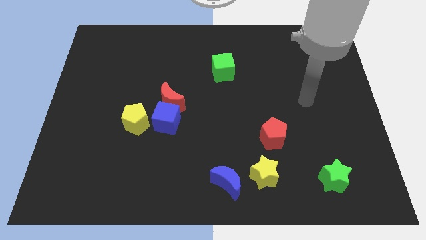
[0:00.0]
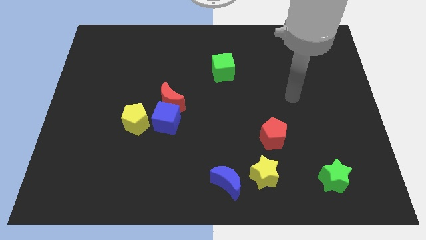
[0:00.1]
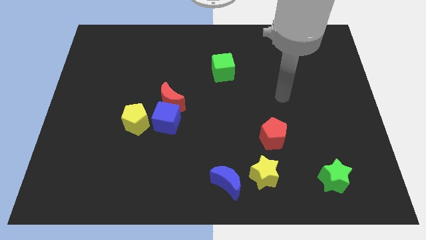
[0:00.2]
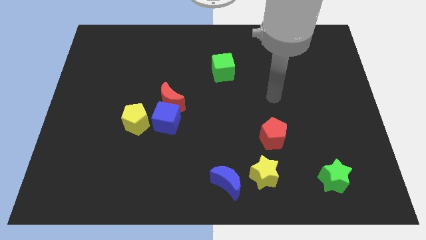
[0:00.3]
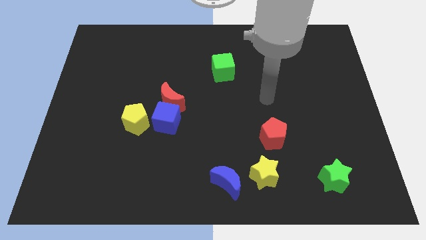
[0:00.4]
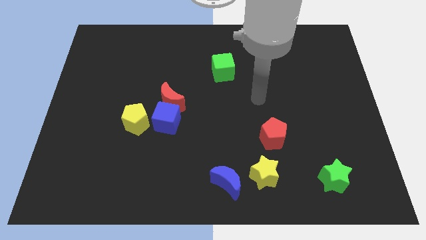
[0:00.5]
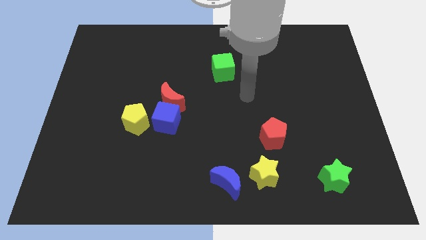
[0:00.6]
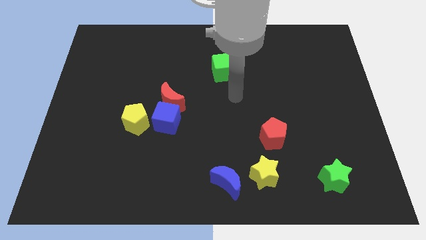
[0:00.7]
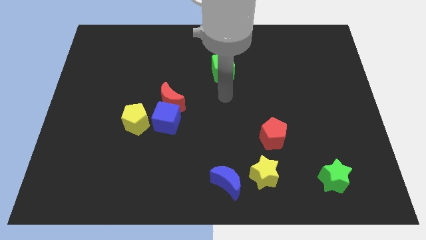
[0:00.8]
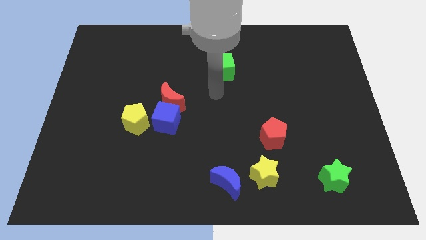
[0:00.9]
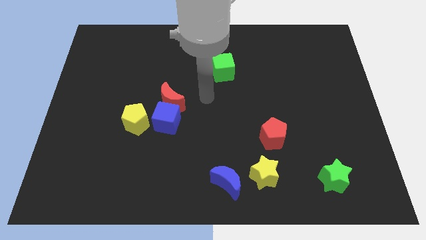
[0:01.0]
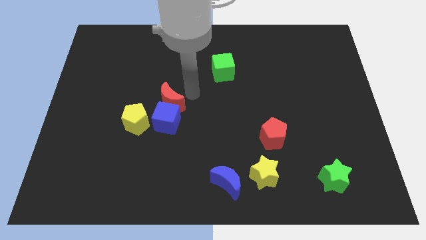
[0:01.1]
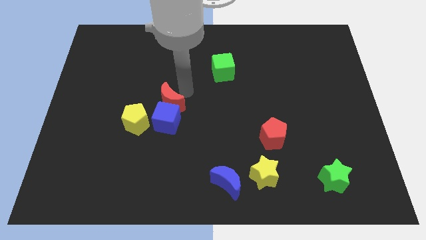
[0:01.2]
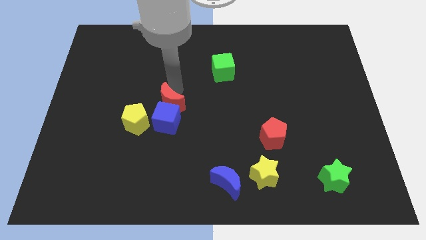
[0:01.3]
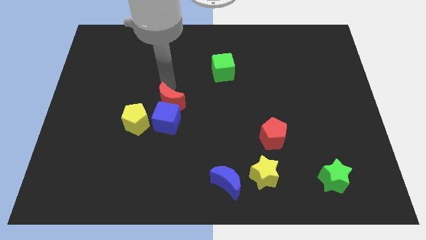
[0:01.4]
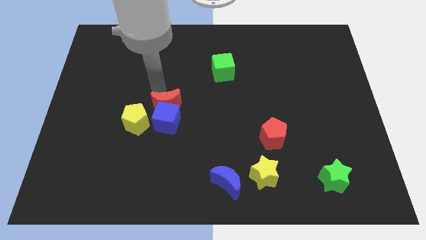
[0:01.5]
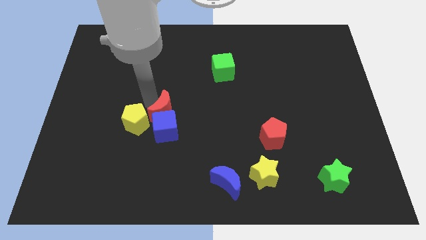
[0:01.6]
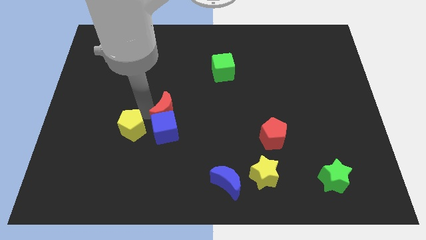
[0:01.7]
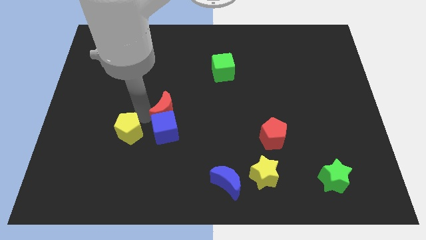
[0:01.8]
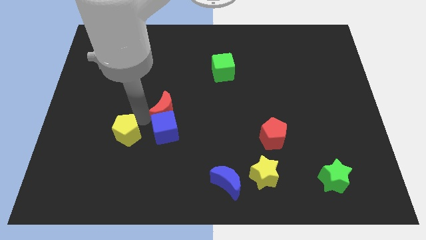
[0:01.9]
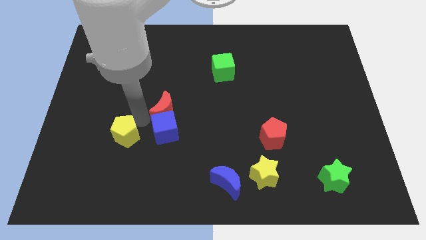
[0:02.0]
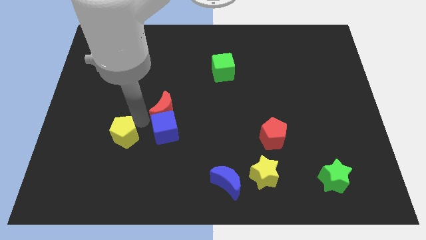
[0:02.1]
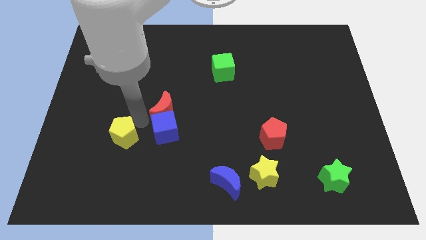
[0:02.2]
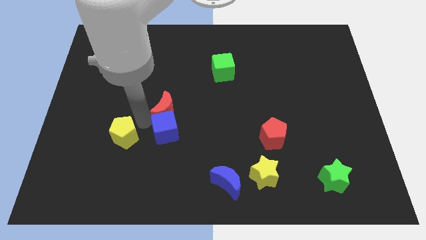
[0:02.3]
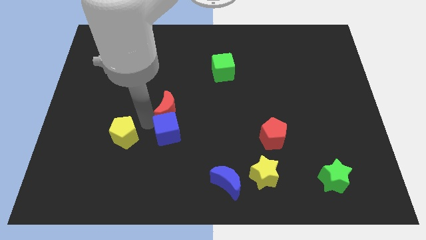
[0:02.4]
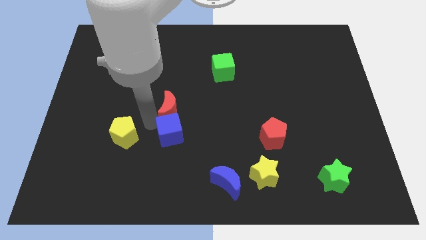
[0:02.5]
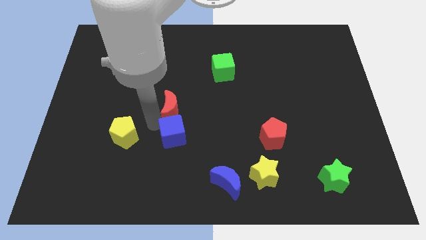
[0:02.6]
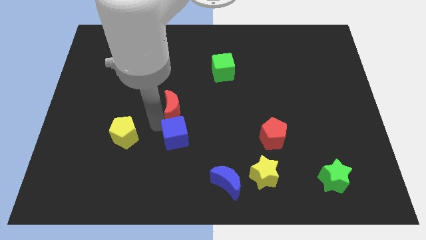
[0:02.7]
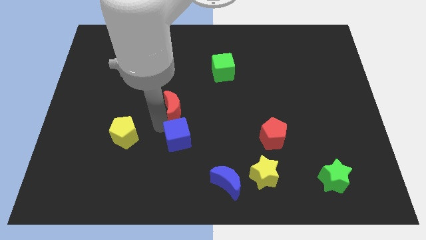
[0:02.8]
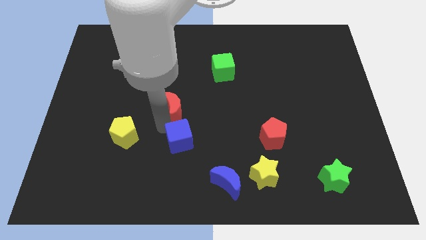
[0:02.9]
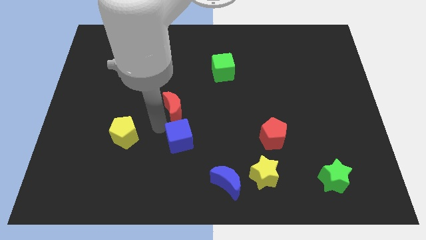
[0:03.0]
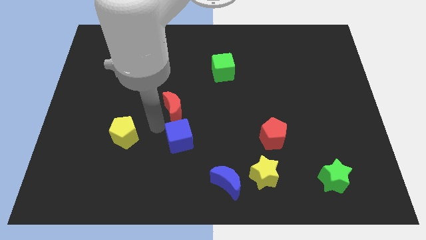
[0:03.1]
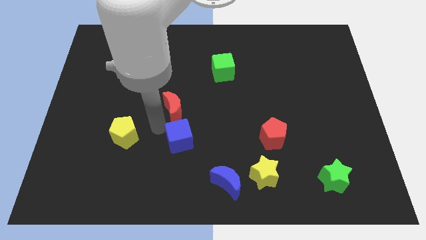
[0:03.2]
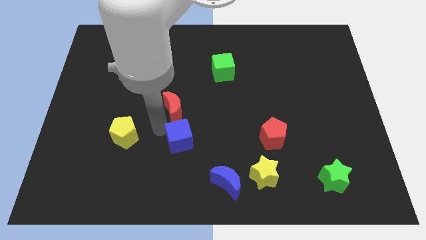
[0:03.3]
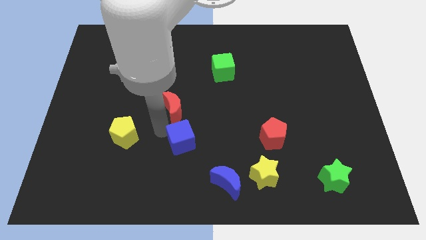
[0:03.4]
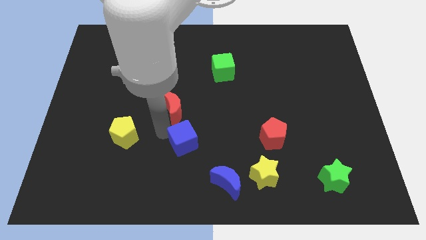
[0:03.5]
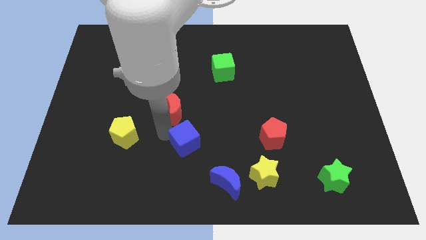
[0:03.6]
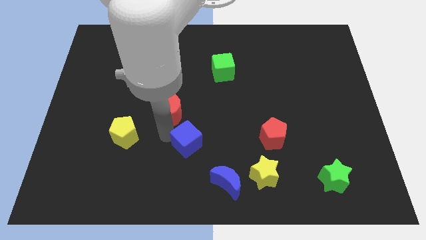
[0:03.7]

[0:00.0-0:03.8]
separate the blue cube from the red moon and yellow pentagon

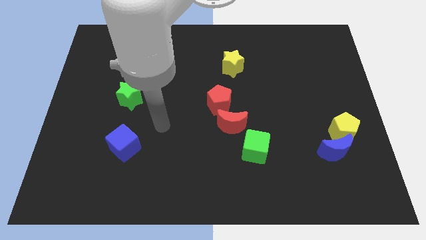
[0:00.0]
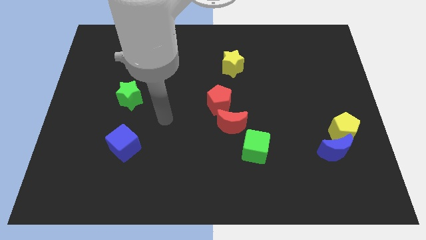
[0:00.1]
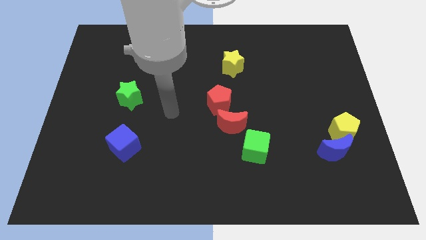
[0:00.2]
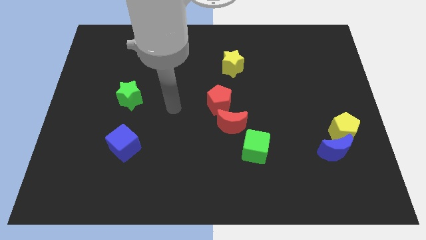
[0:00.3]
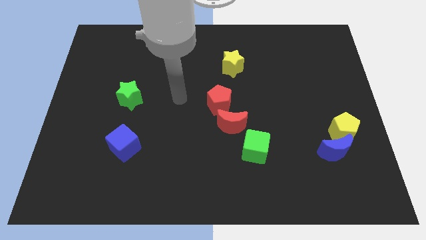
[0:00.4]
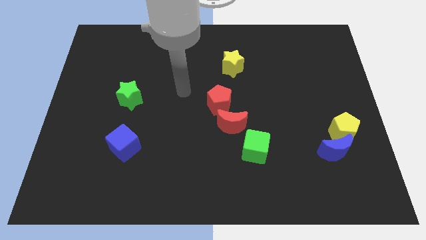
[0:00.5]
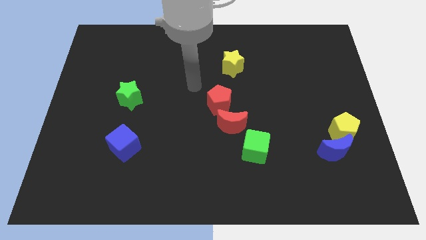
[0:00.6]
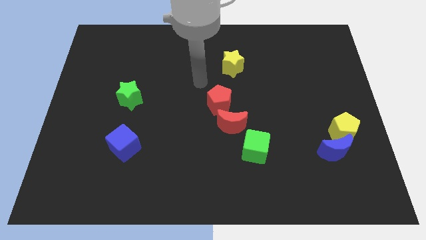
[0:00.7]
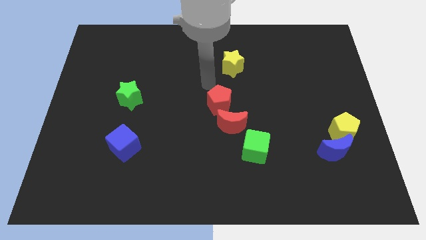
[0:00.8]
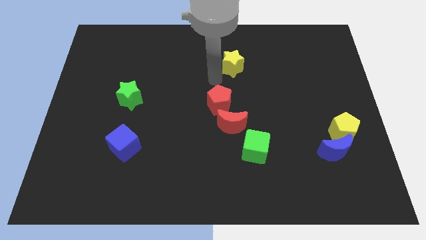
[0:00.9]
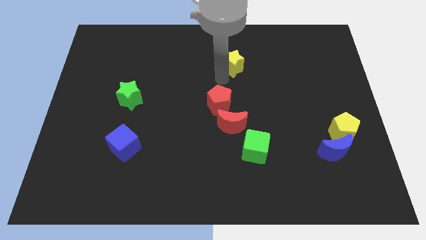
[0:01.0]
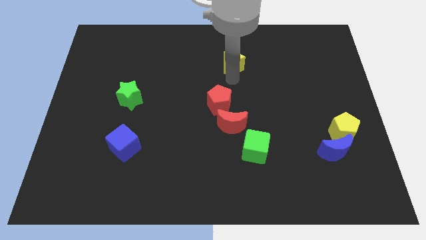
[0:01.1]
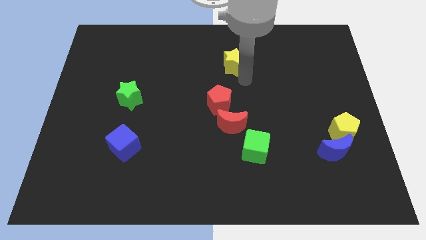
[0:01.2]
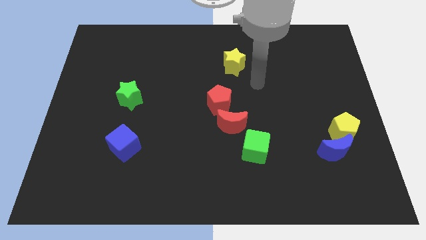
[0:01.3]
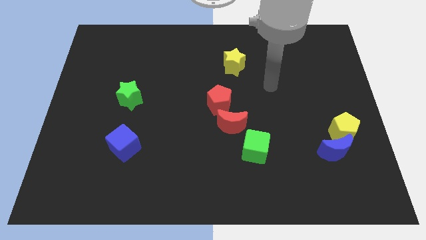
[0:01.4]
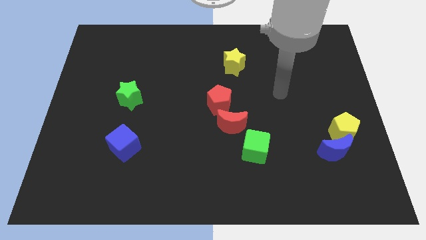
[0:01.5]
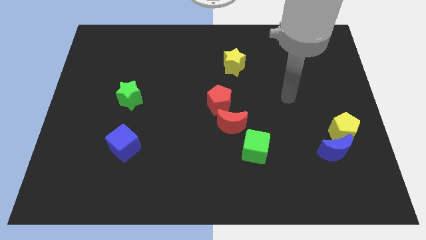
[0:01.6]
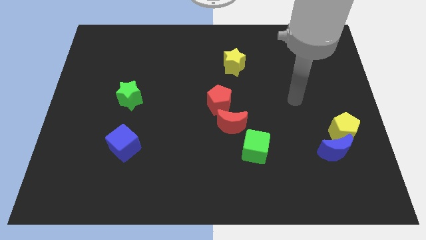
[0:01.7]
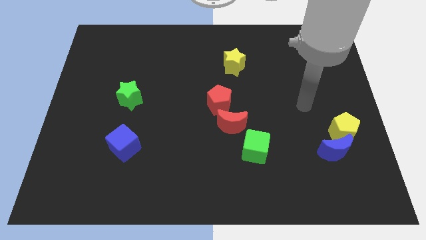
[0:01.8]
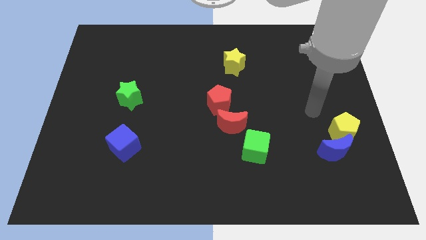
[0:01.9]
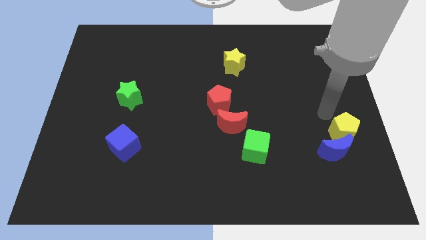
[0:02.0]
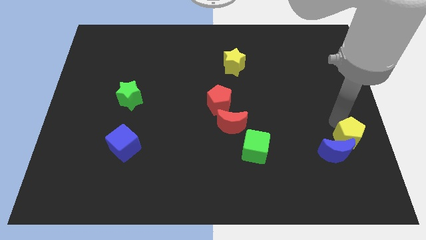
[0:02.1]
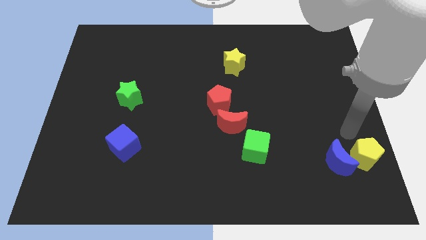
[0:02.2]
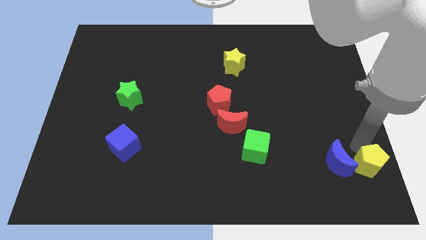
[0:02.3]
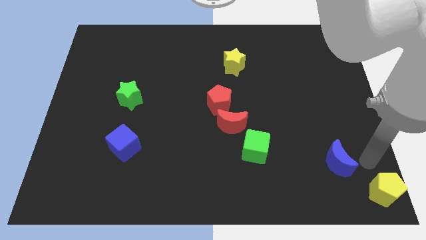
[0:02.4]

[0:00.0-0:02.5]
pull the blue moon apart from the yellow pentagon

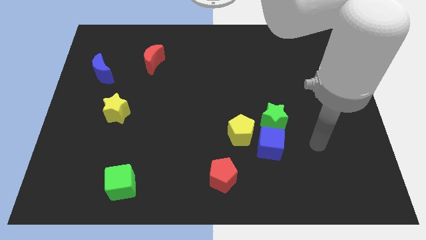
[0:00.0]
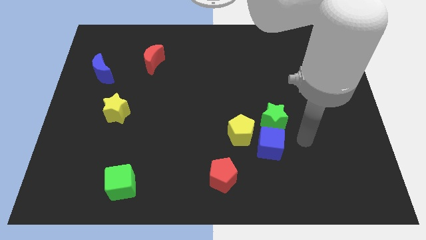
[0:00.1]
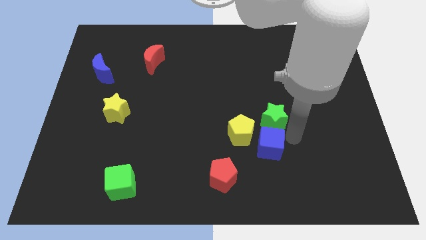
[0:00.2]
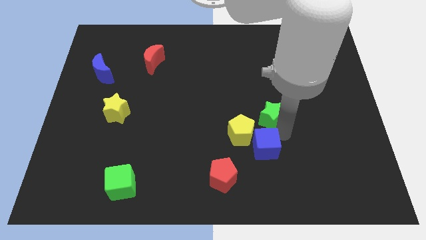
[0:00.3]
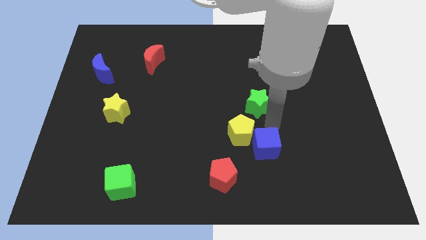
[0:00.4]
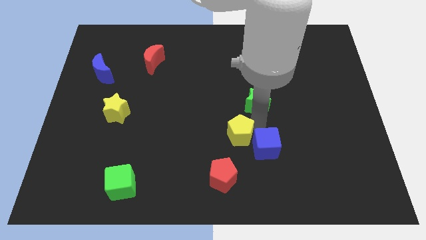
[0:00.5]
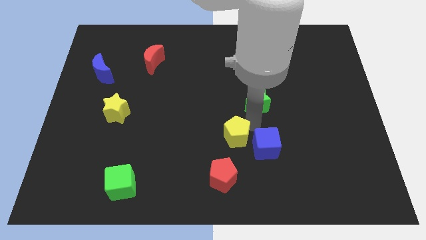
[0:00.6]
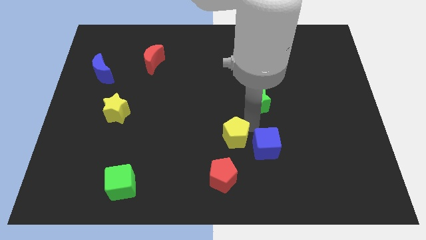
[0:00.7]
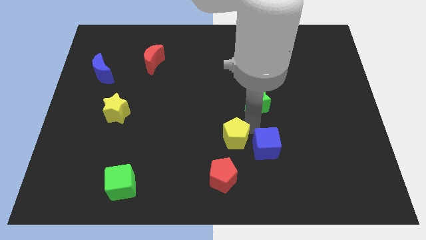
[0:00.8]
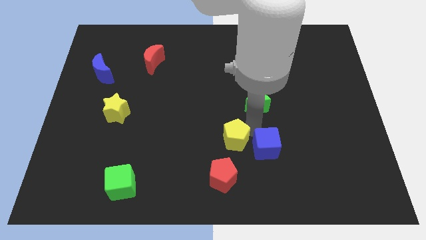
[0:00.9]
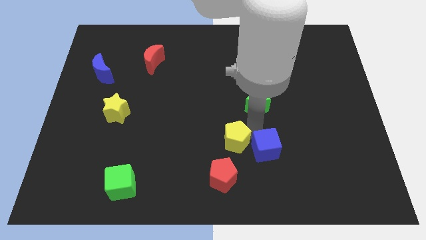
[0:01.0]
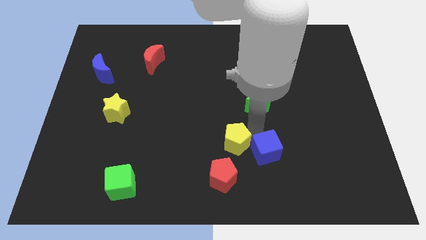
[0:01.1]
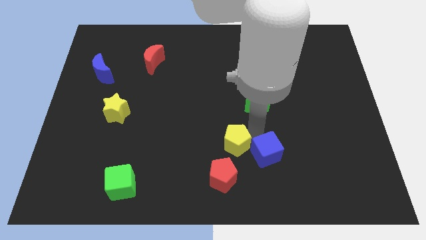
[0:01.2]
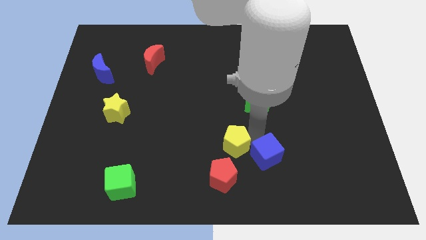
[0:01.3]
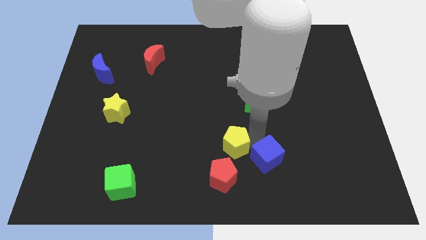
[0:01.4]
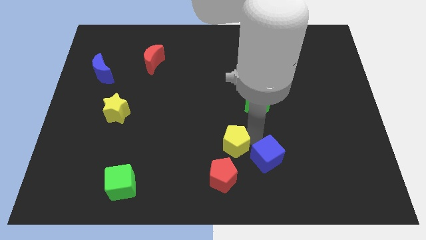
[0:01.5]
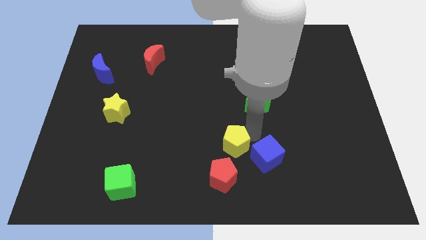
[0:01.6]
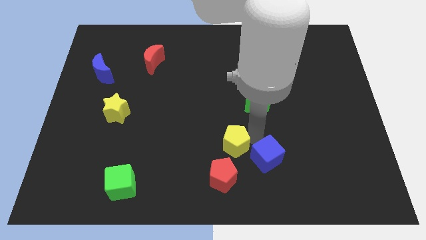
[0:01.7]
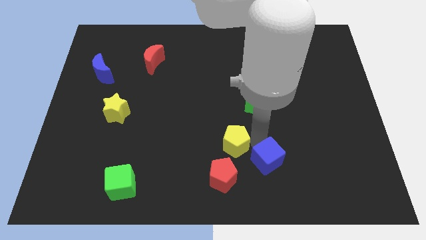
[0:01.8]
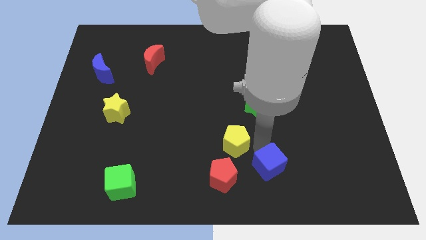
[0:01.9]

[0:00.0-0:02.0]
move the blue cube away from the green star and yellow pentagon

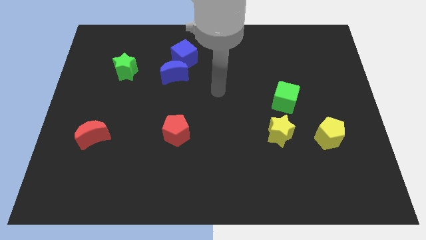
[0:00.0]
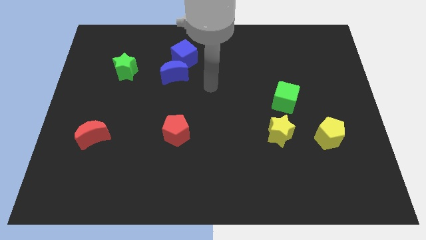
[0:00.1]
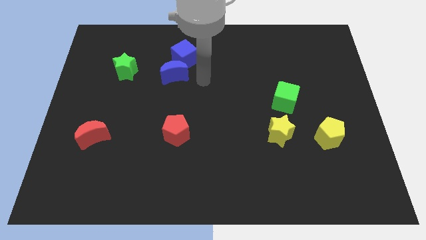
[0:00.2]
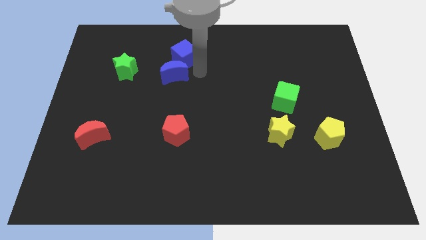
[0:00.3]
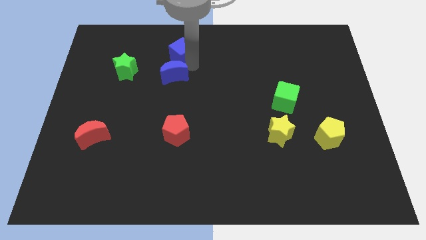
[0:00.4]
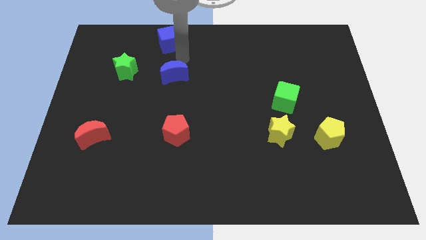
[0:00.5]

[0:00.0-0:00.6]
pull the blue moon apart from the blue cube

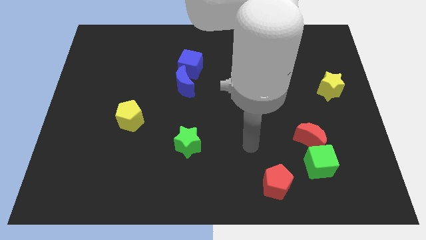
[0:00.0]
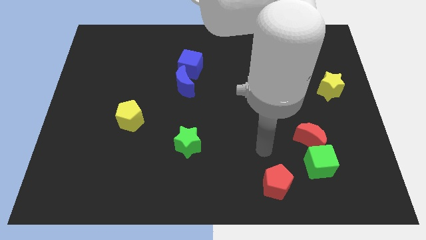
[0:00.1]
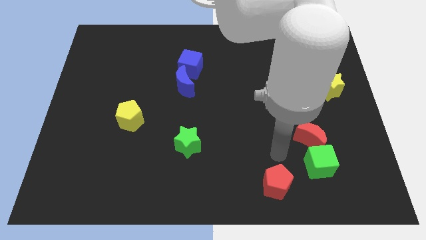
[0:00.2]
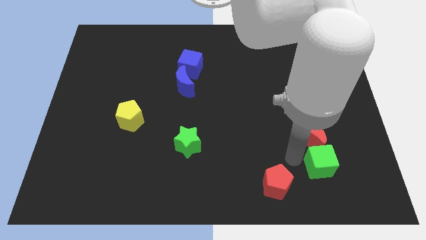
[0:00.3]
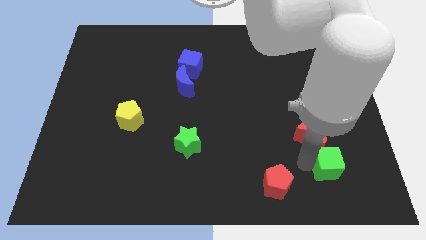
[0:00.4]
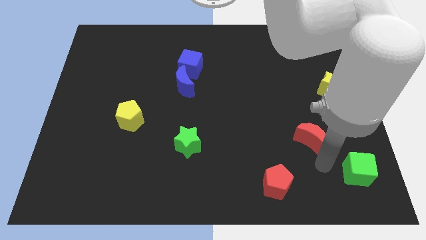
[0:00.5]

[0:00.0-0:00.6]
pull the red moon apart from the green cube
